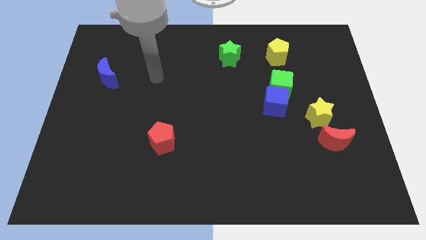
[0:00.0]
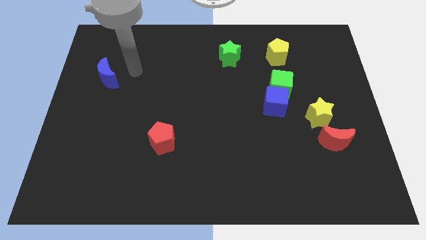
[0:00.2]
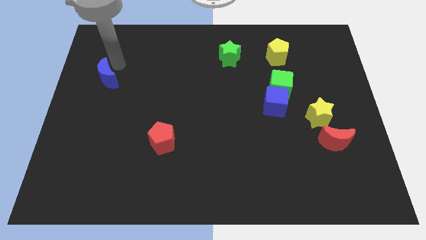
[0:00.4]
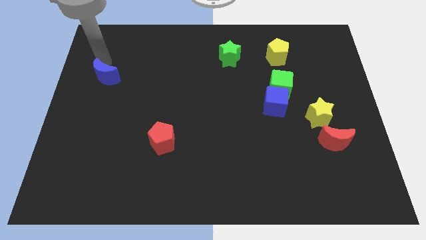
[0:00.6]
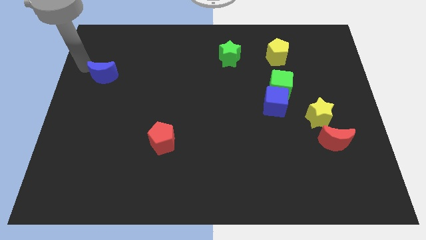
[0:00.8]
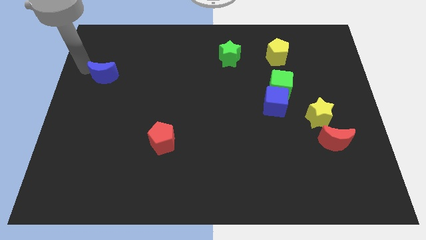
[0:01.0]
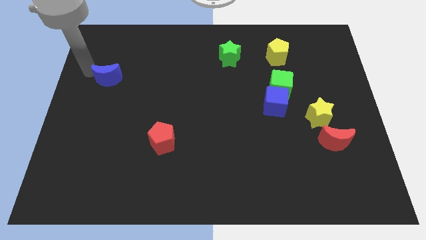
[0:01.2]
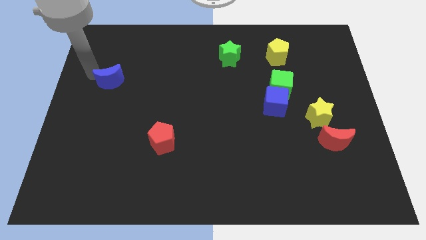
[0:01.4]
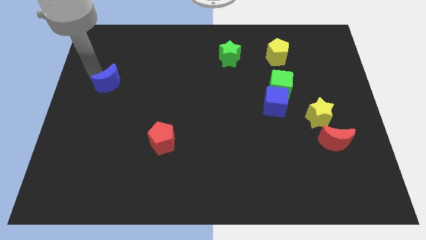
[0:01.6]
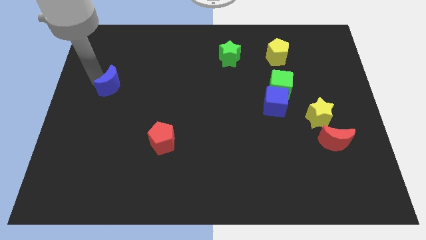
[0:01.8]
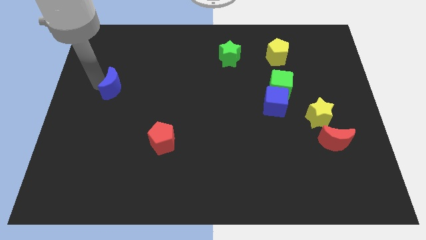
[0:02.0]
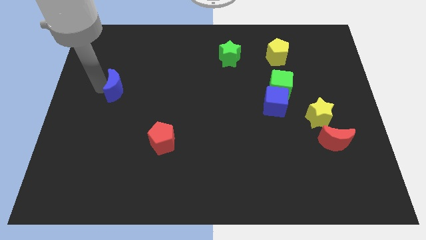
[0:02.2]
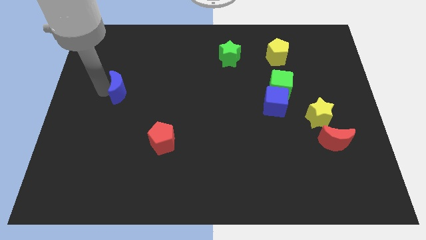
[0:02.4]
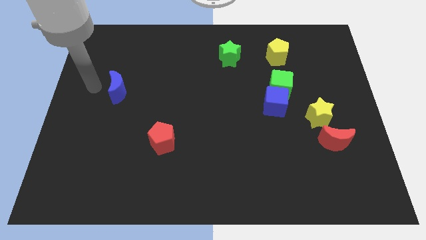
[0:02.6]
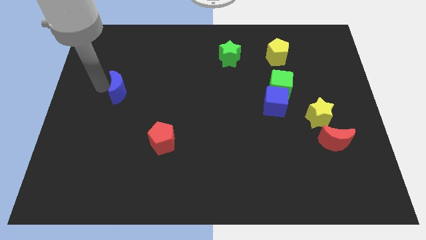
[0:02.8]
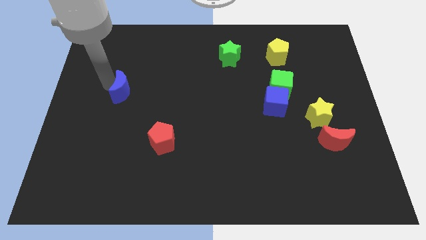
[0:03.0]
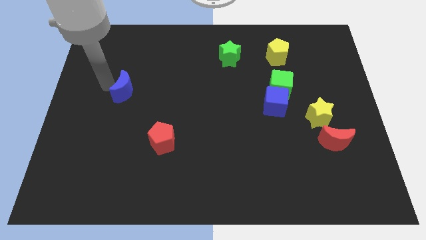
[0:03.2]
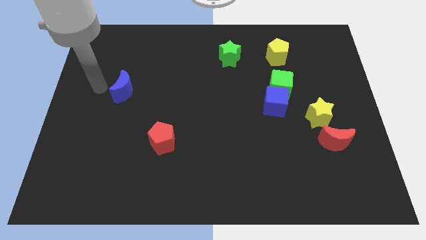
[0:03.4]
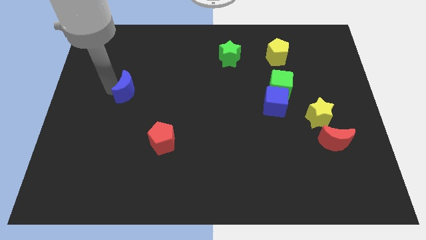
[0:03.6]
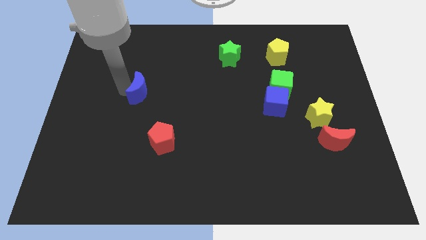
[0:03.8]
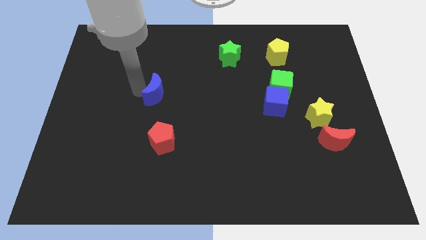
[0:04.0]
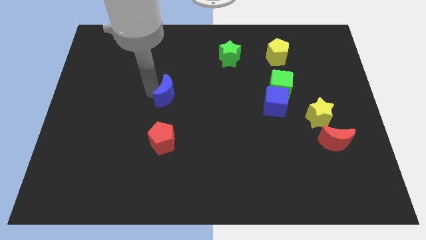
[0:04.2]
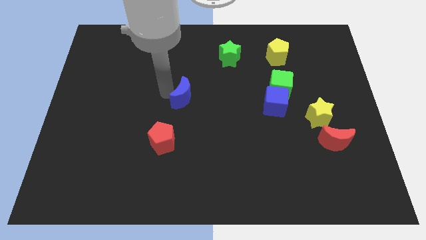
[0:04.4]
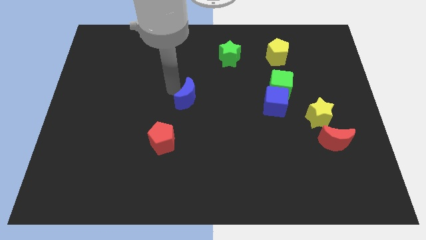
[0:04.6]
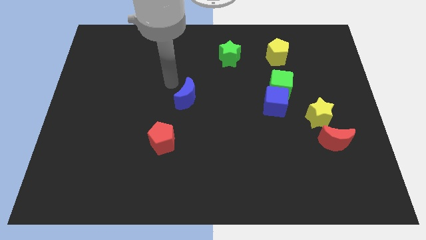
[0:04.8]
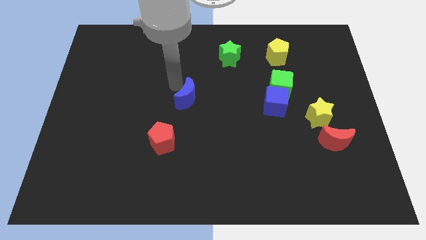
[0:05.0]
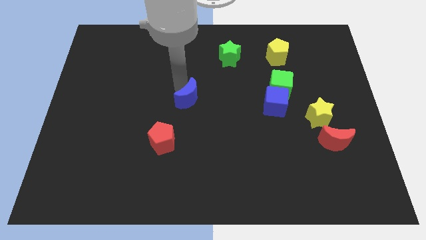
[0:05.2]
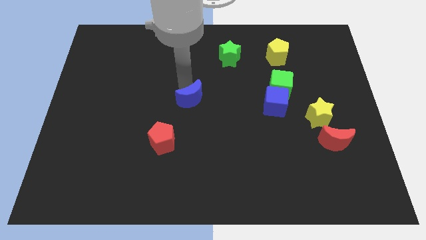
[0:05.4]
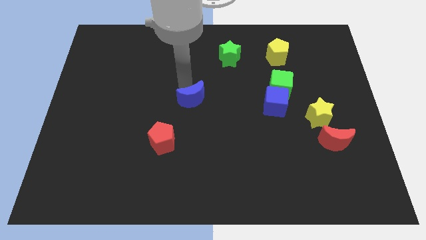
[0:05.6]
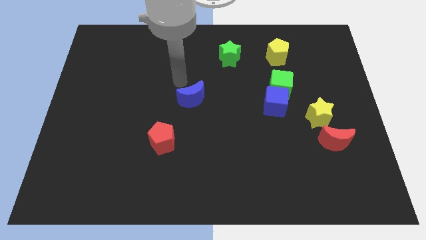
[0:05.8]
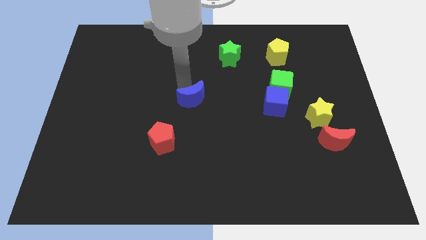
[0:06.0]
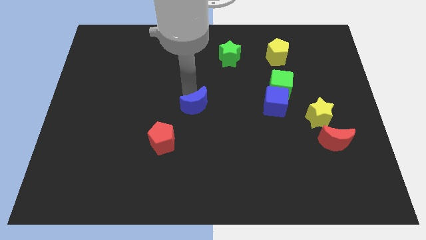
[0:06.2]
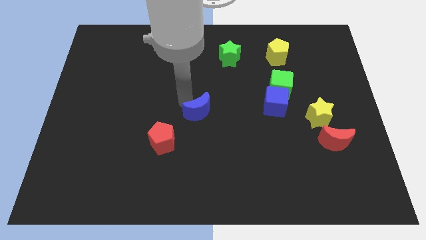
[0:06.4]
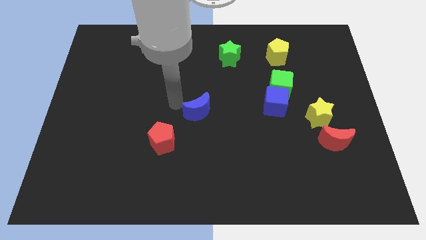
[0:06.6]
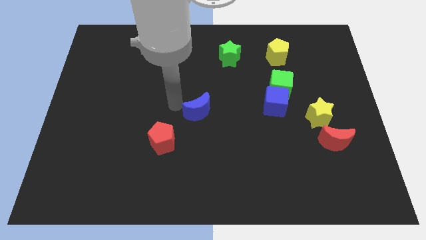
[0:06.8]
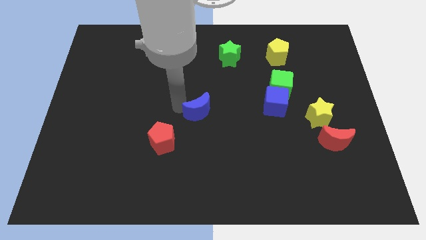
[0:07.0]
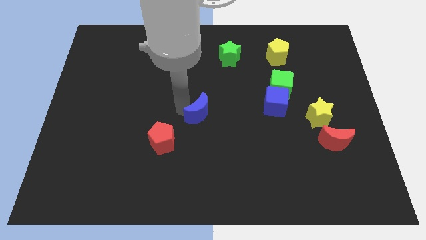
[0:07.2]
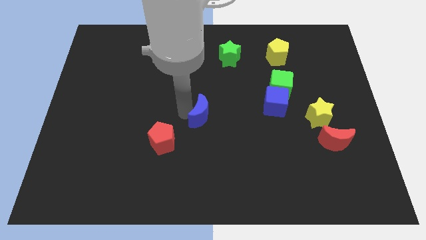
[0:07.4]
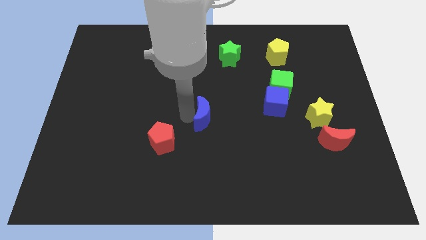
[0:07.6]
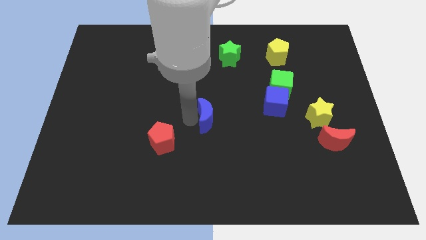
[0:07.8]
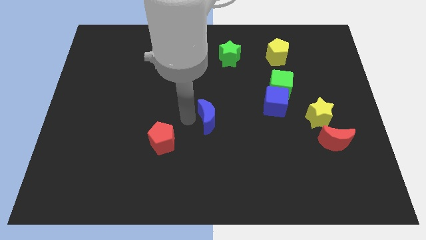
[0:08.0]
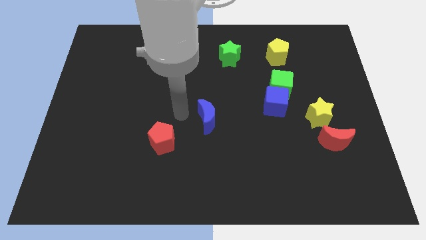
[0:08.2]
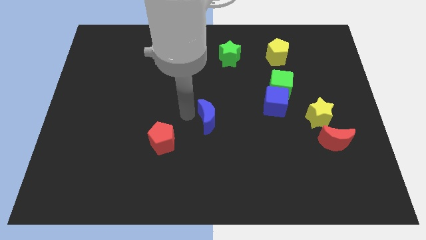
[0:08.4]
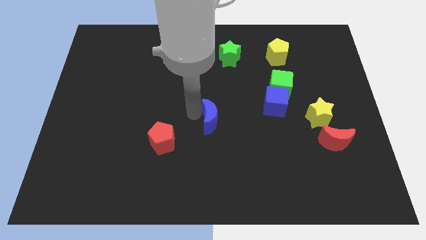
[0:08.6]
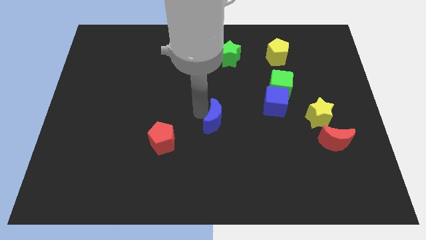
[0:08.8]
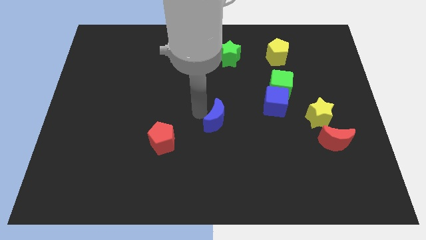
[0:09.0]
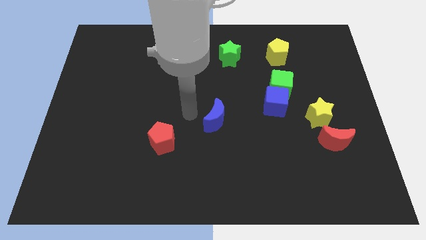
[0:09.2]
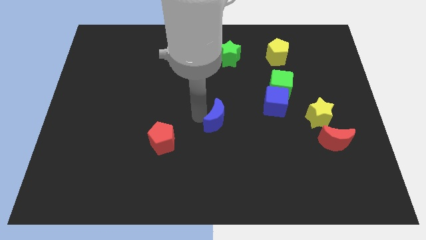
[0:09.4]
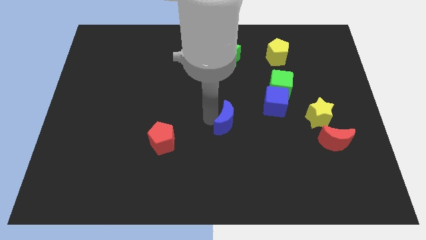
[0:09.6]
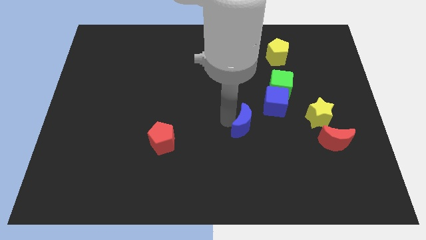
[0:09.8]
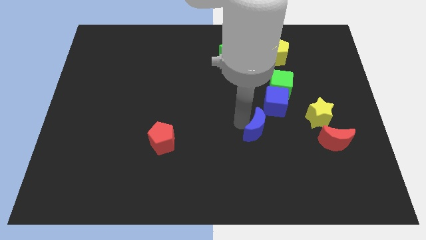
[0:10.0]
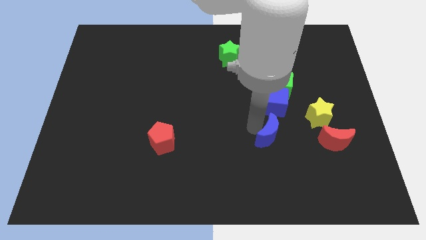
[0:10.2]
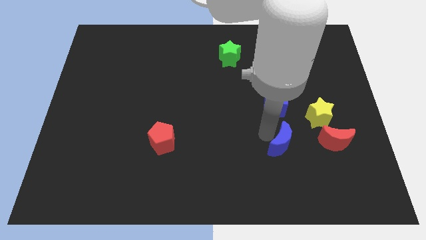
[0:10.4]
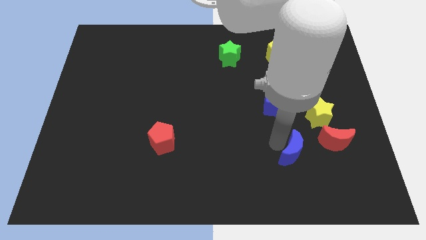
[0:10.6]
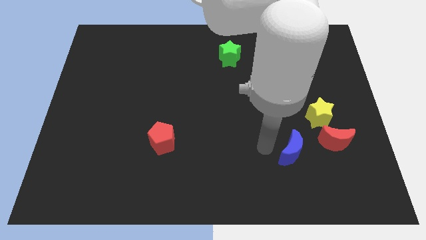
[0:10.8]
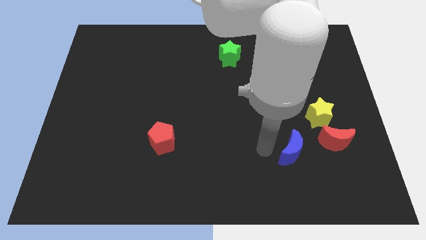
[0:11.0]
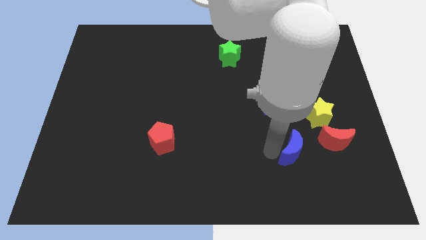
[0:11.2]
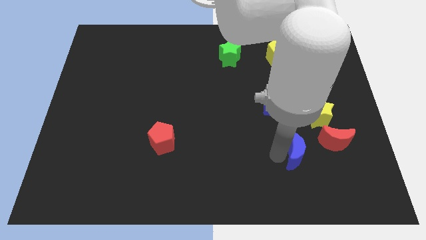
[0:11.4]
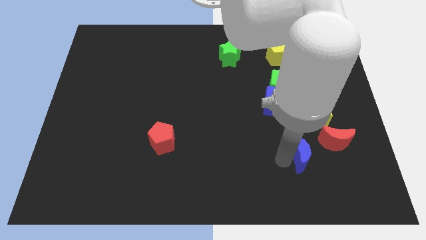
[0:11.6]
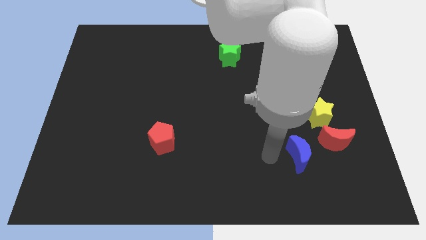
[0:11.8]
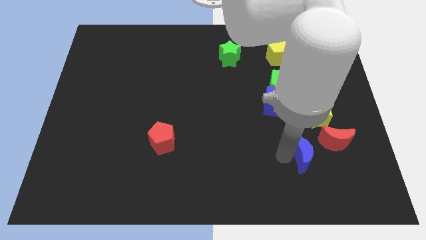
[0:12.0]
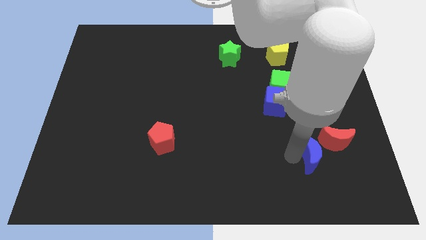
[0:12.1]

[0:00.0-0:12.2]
slide the blue moon to the bottom of the yellow star

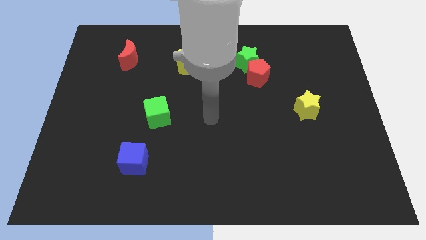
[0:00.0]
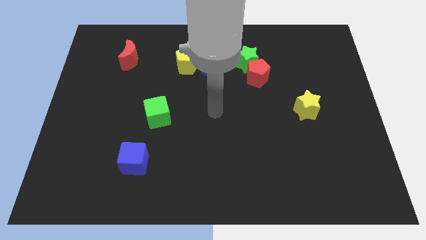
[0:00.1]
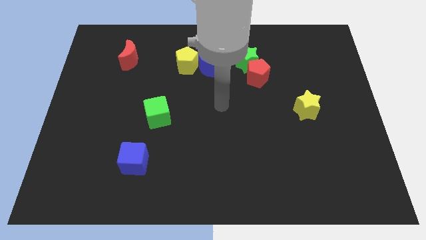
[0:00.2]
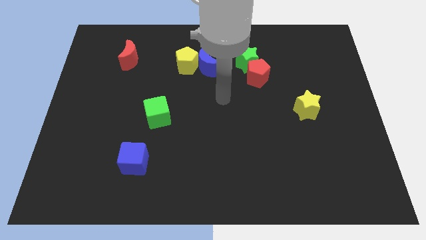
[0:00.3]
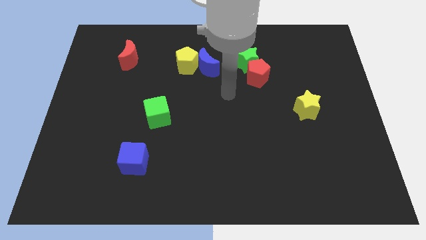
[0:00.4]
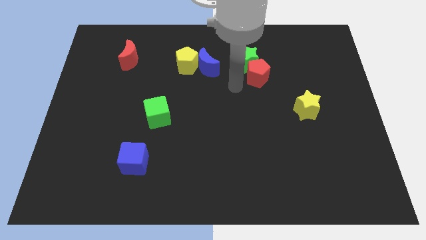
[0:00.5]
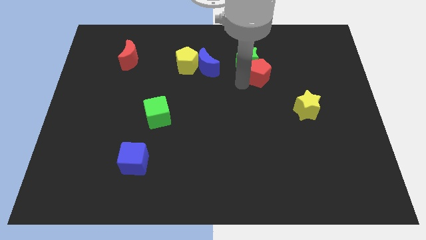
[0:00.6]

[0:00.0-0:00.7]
push the red pentagon right of the green star

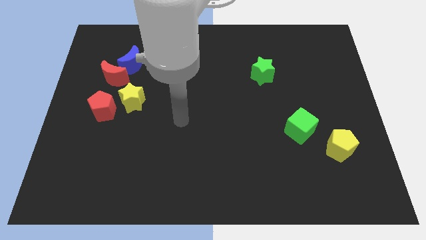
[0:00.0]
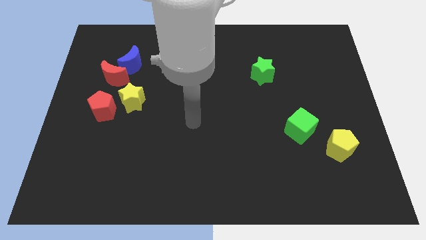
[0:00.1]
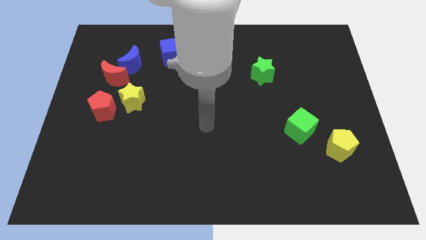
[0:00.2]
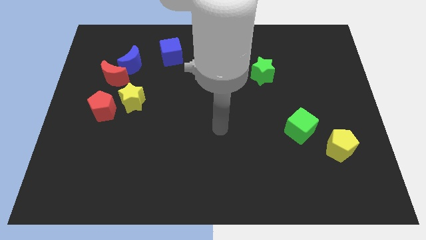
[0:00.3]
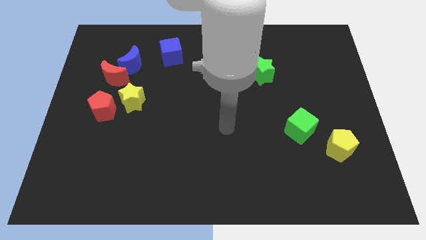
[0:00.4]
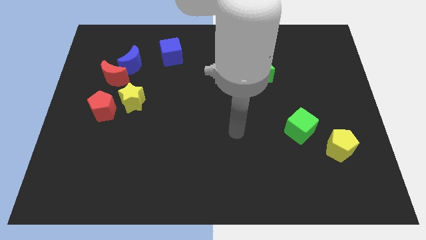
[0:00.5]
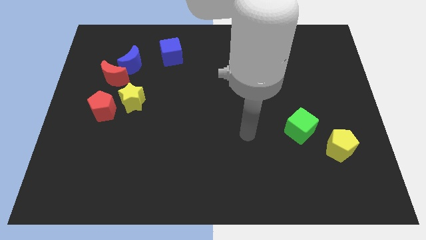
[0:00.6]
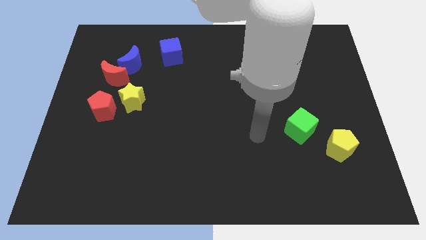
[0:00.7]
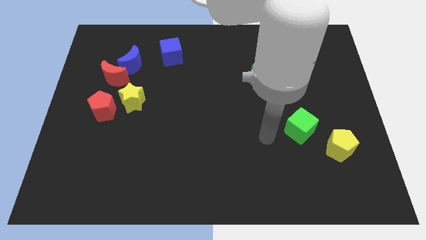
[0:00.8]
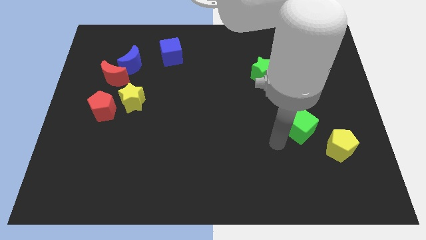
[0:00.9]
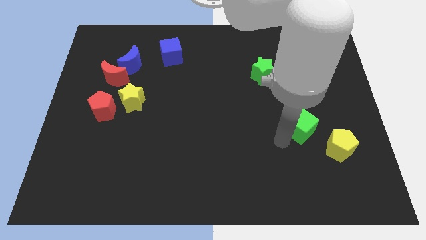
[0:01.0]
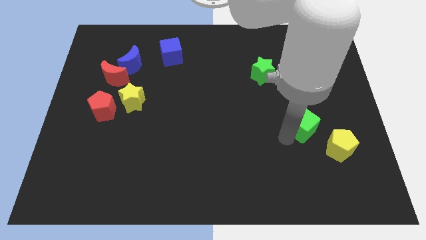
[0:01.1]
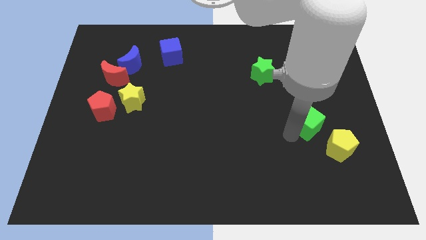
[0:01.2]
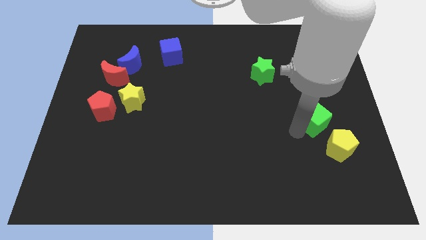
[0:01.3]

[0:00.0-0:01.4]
move the green cube to the top side of the yellow pentagon
